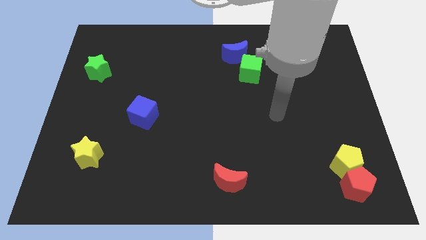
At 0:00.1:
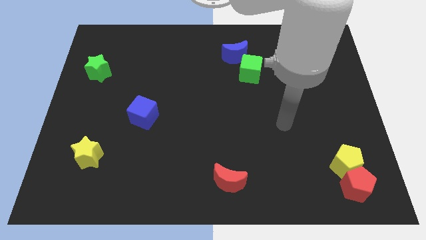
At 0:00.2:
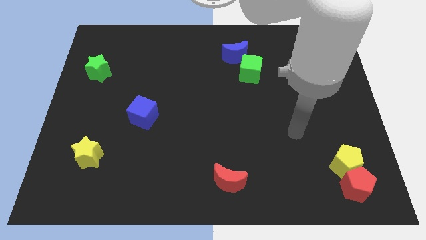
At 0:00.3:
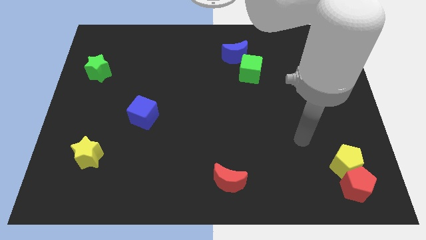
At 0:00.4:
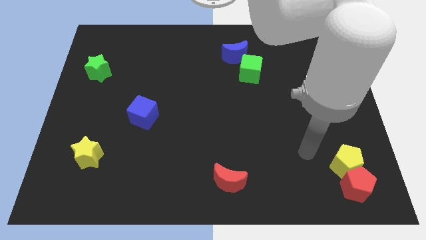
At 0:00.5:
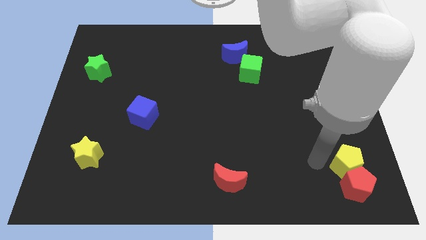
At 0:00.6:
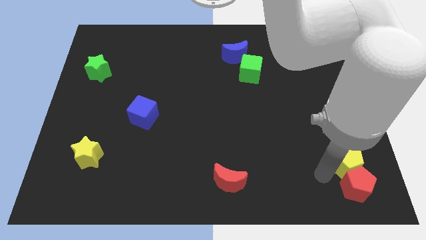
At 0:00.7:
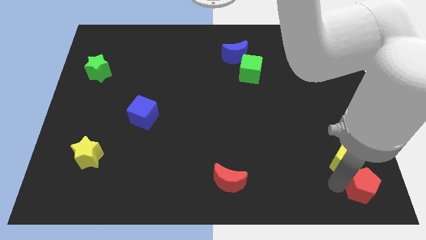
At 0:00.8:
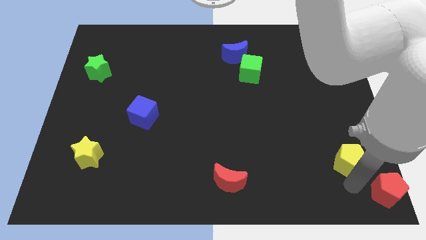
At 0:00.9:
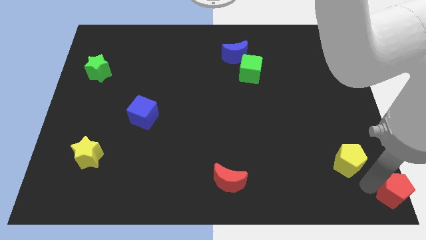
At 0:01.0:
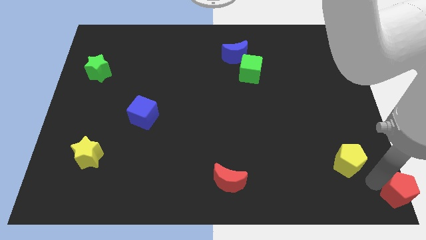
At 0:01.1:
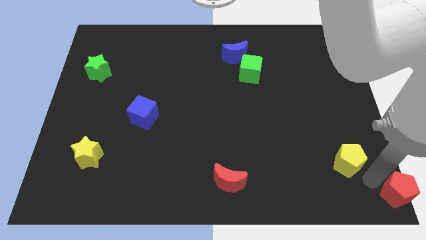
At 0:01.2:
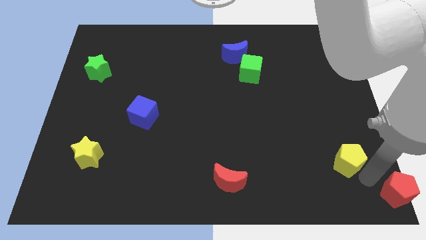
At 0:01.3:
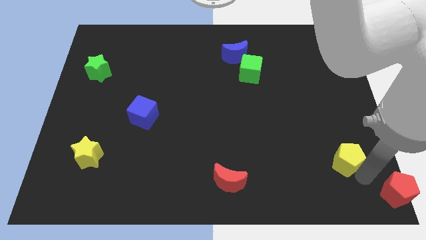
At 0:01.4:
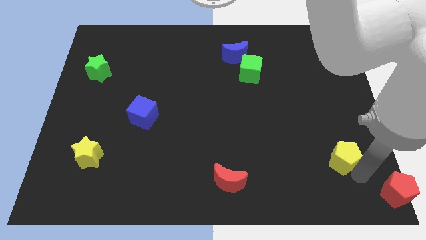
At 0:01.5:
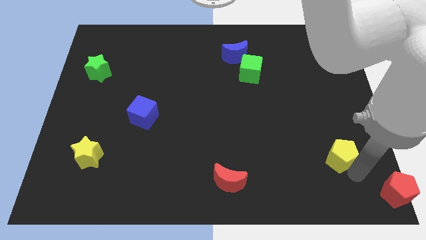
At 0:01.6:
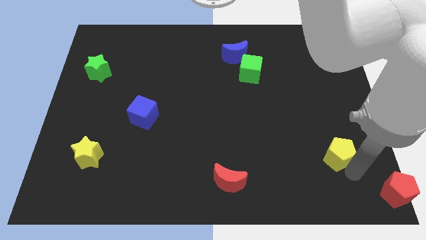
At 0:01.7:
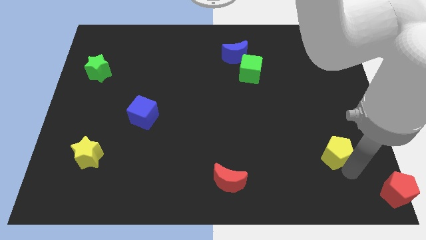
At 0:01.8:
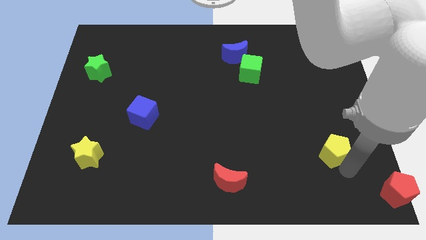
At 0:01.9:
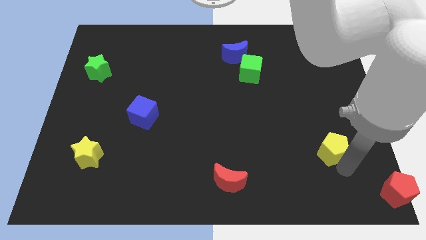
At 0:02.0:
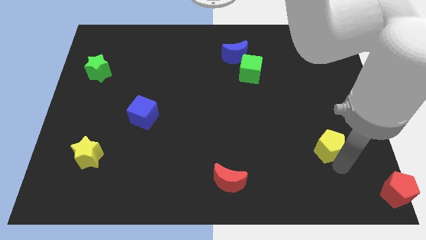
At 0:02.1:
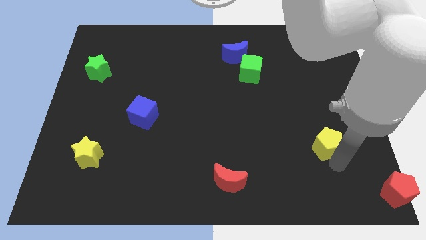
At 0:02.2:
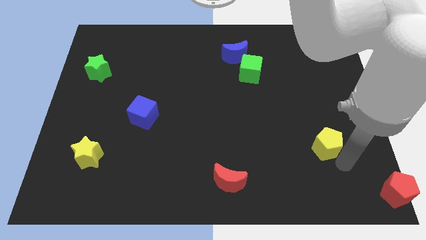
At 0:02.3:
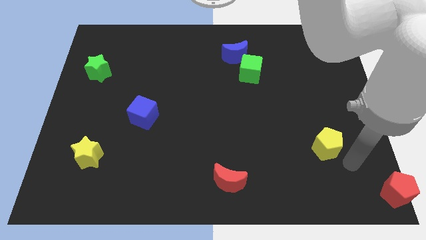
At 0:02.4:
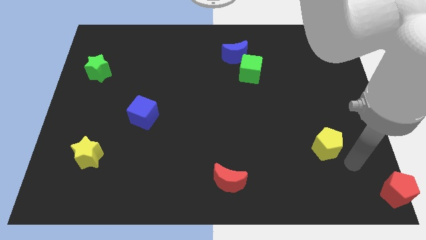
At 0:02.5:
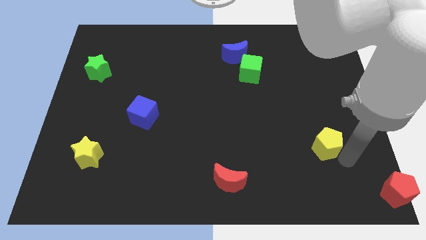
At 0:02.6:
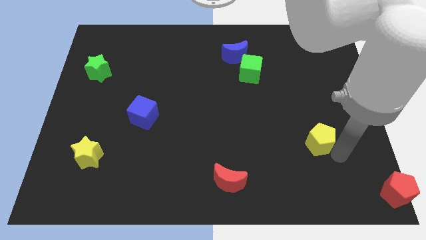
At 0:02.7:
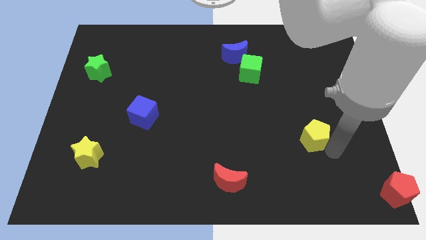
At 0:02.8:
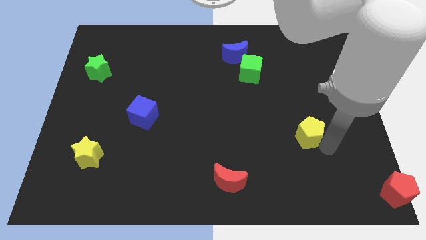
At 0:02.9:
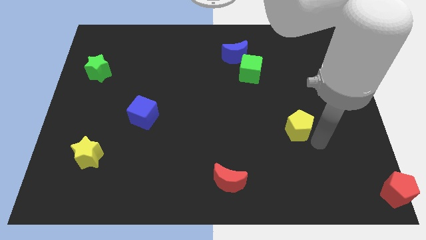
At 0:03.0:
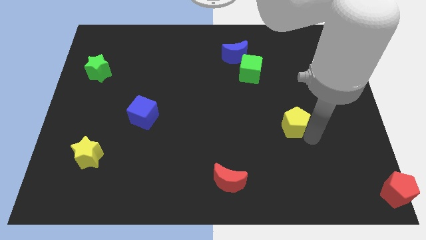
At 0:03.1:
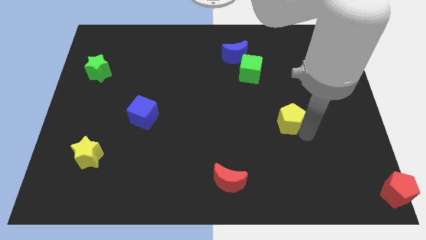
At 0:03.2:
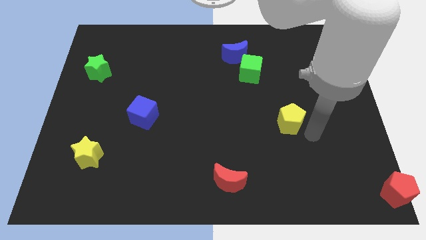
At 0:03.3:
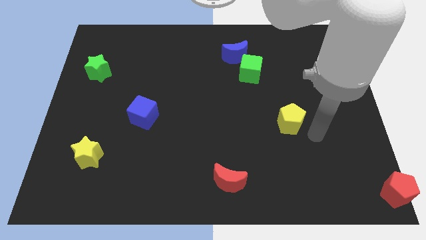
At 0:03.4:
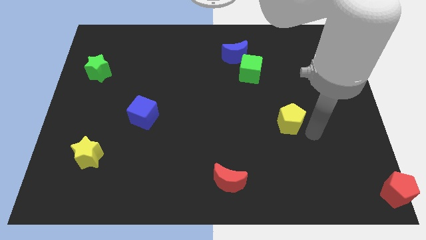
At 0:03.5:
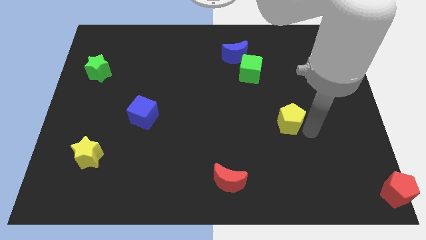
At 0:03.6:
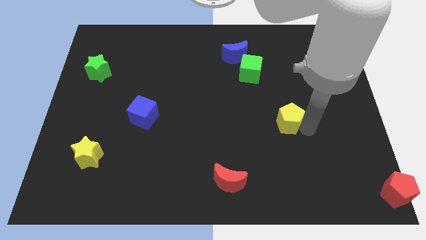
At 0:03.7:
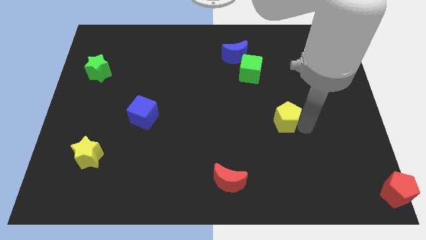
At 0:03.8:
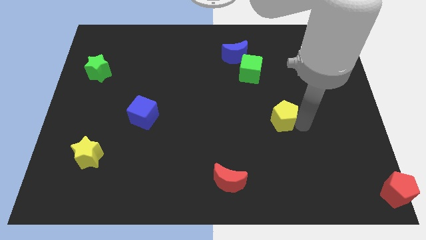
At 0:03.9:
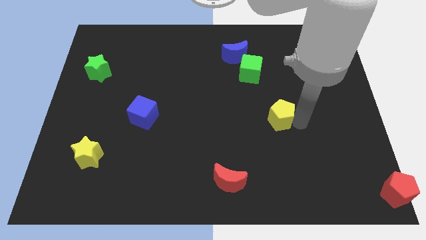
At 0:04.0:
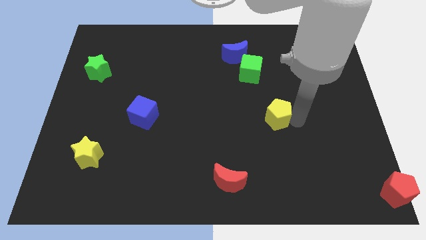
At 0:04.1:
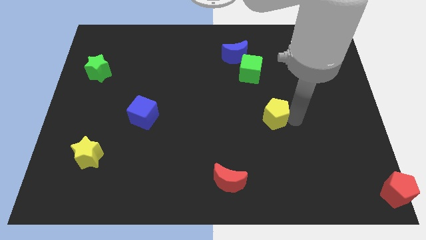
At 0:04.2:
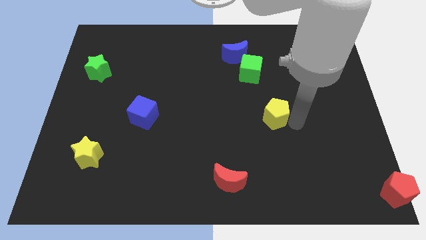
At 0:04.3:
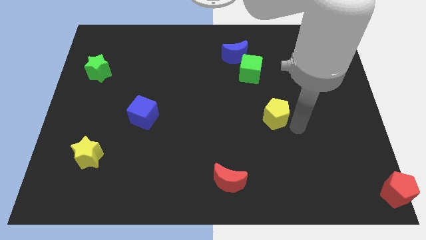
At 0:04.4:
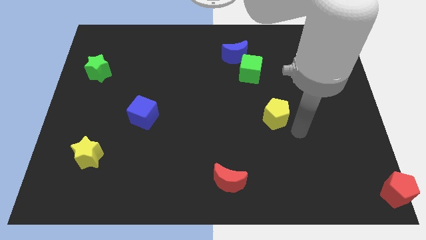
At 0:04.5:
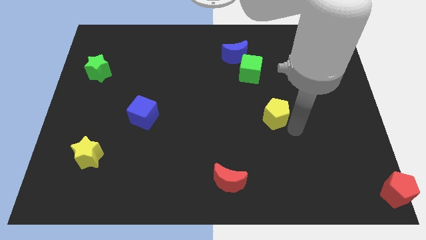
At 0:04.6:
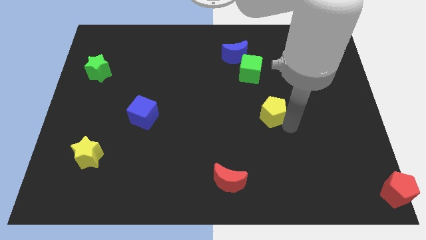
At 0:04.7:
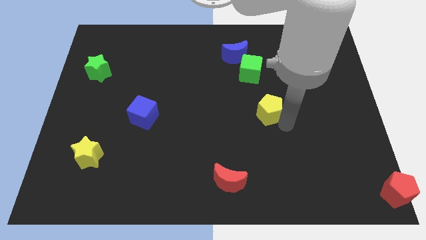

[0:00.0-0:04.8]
push the yellow pentagon upwards and to the left

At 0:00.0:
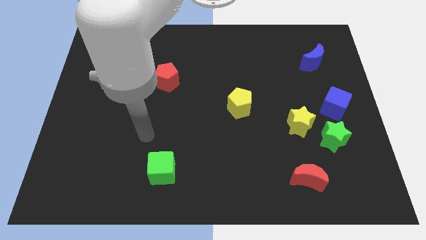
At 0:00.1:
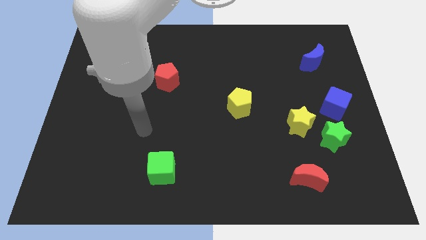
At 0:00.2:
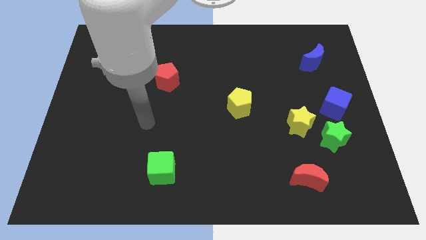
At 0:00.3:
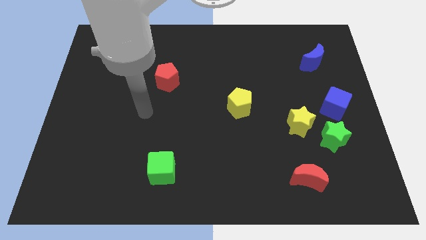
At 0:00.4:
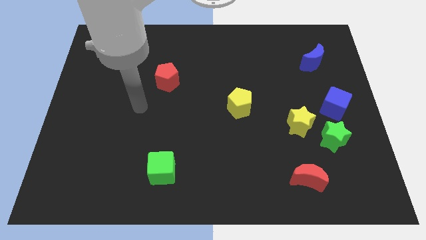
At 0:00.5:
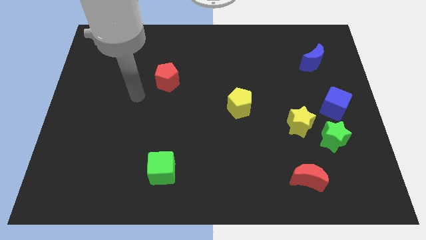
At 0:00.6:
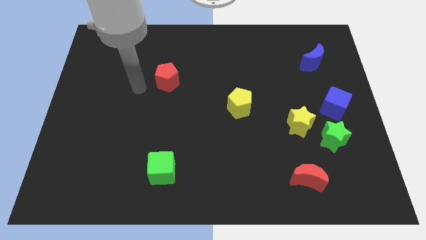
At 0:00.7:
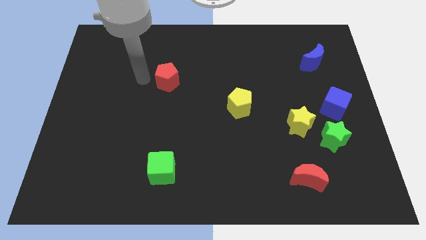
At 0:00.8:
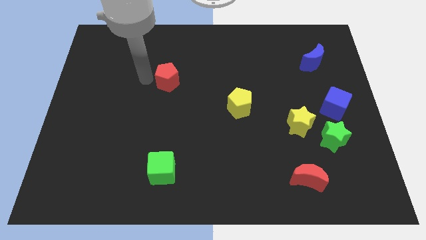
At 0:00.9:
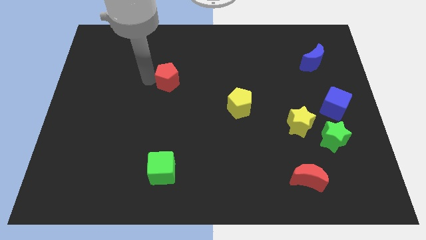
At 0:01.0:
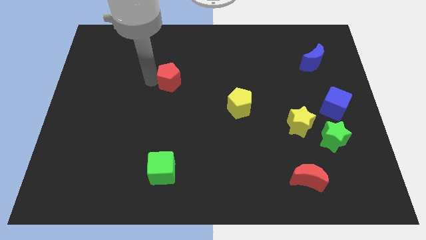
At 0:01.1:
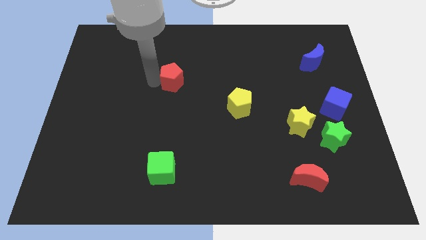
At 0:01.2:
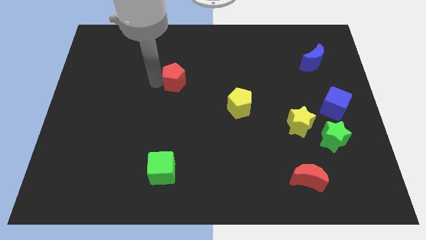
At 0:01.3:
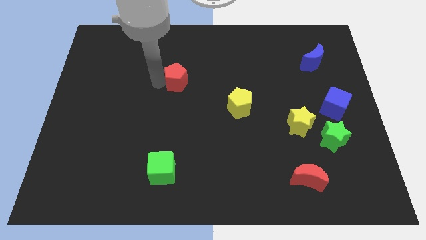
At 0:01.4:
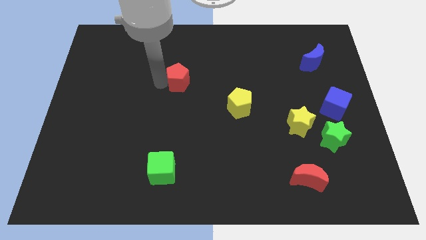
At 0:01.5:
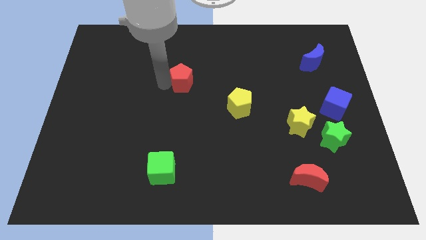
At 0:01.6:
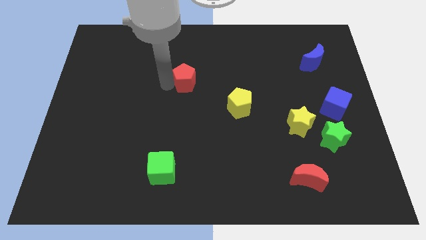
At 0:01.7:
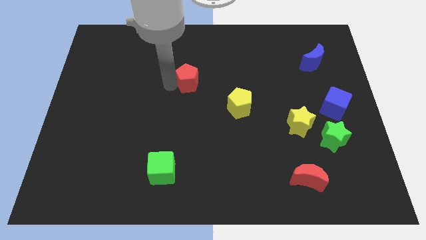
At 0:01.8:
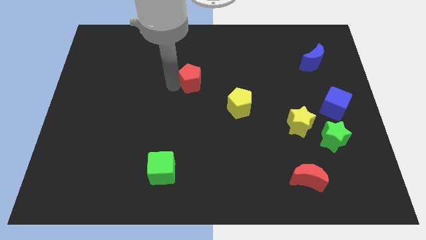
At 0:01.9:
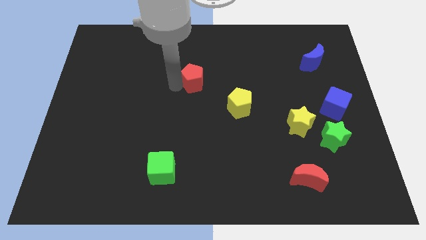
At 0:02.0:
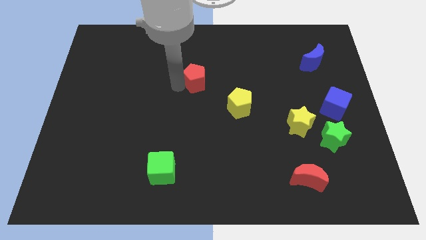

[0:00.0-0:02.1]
move the red pentagon a little bit right

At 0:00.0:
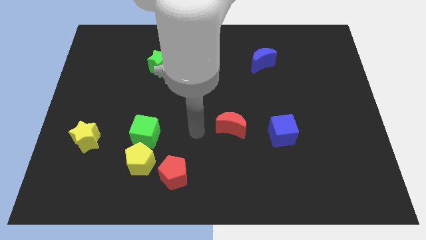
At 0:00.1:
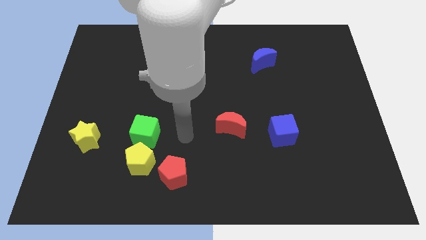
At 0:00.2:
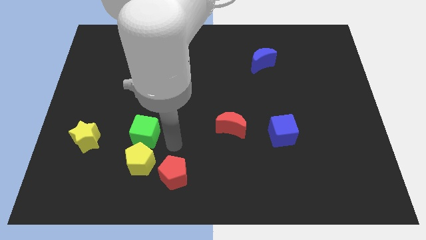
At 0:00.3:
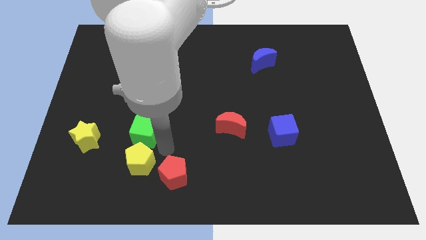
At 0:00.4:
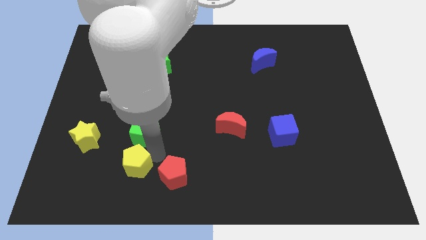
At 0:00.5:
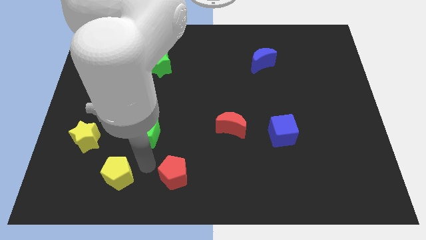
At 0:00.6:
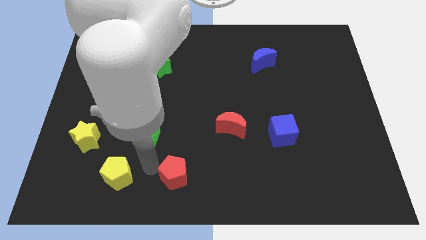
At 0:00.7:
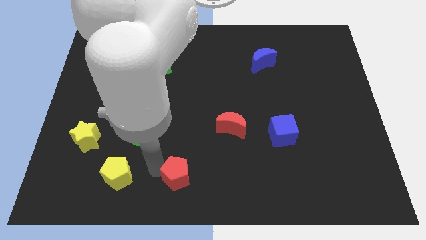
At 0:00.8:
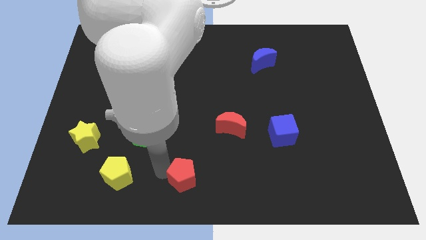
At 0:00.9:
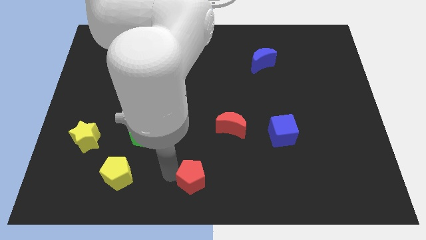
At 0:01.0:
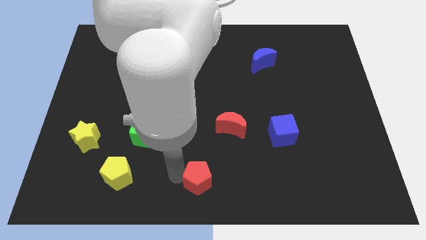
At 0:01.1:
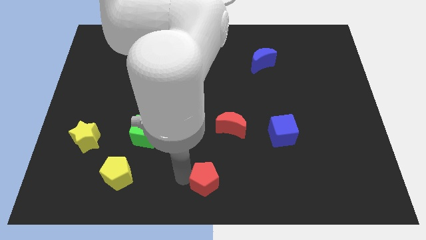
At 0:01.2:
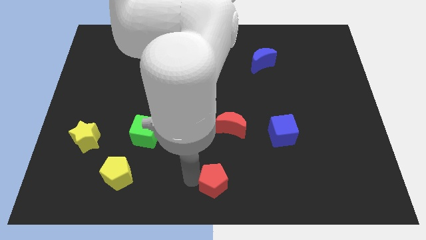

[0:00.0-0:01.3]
slightly push the red pentagon right
